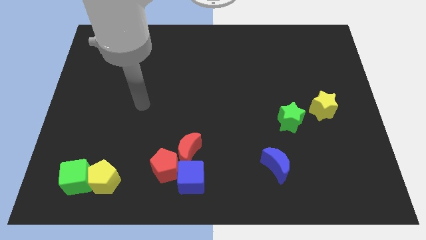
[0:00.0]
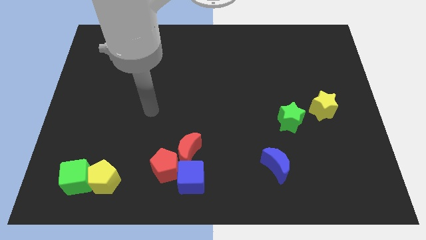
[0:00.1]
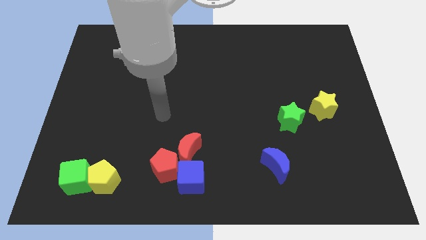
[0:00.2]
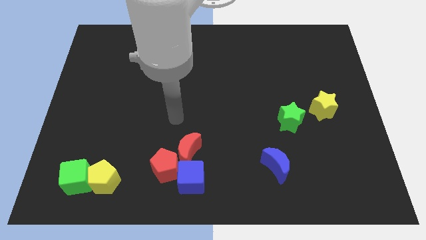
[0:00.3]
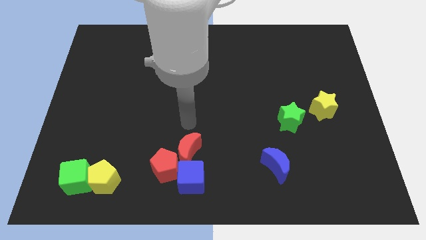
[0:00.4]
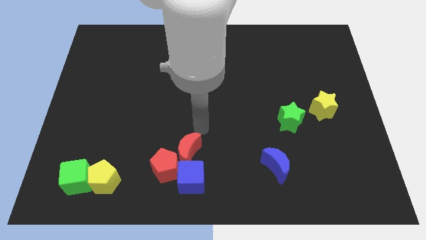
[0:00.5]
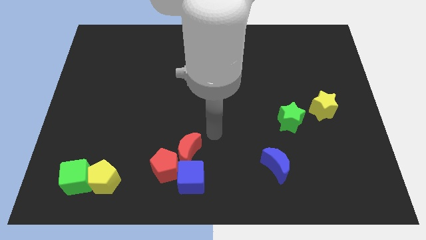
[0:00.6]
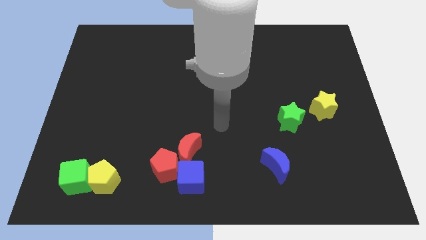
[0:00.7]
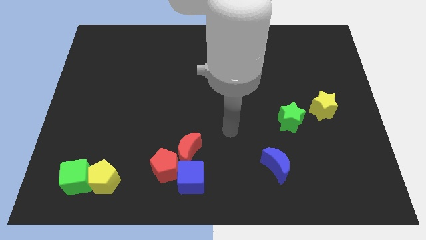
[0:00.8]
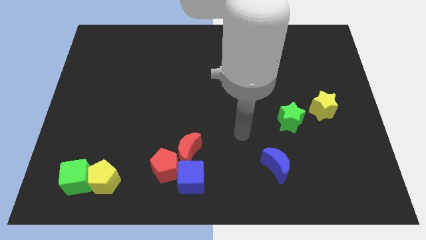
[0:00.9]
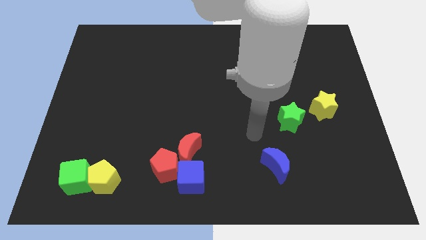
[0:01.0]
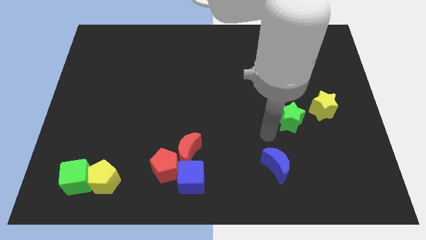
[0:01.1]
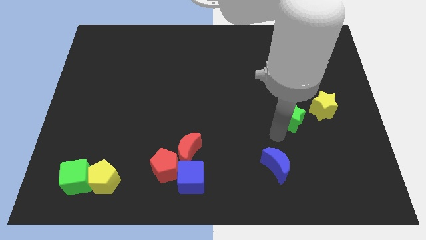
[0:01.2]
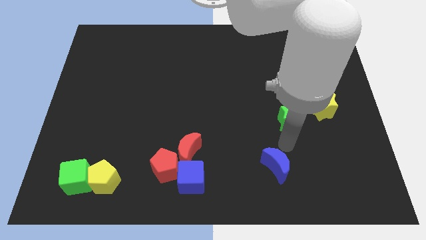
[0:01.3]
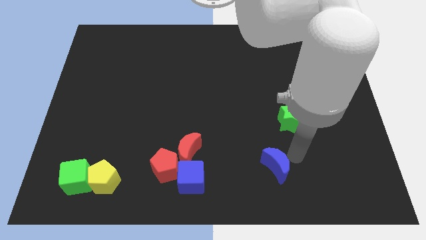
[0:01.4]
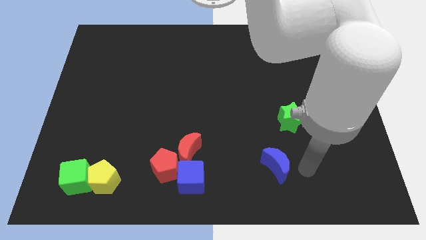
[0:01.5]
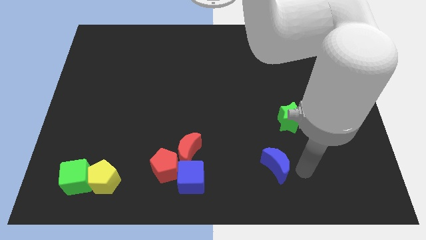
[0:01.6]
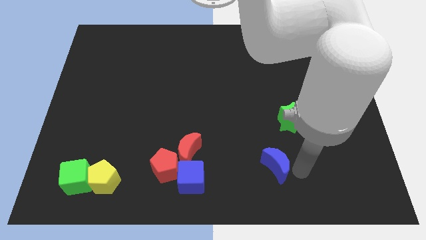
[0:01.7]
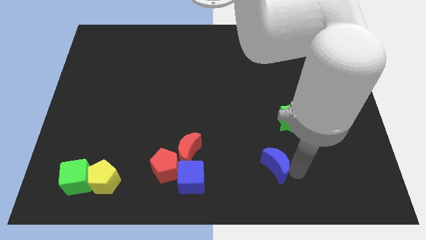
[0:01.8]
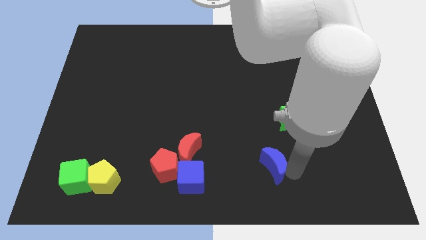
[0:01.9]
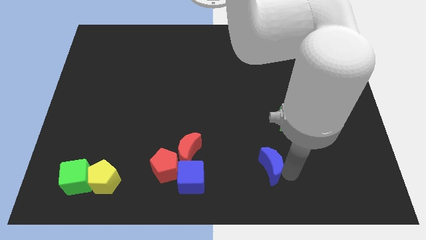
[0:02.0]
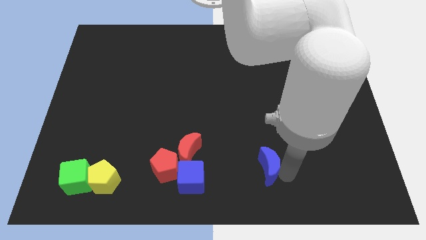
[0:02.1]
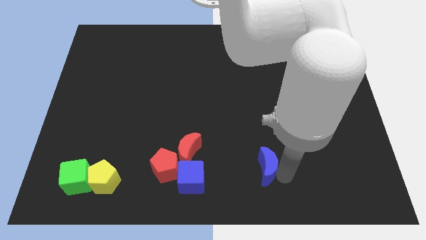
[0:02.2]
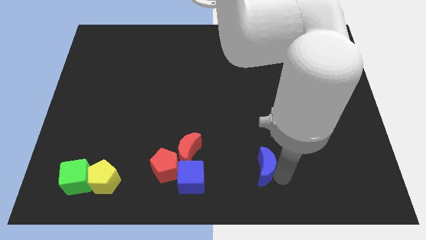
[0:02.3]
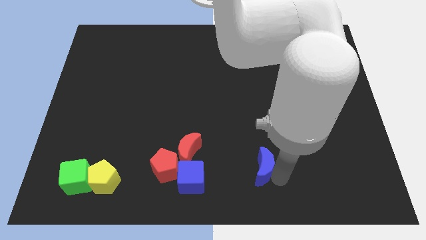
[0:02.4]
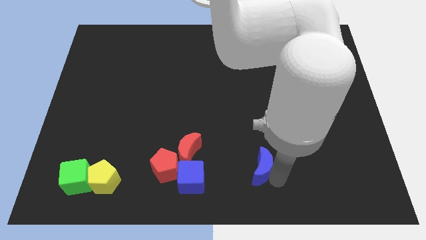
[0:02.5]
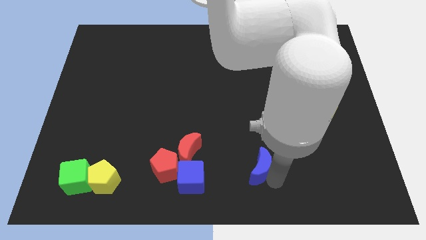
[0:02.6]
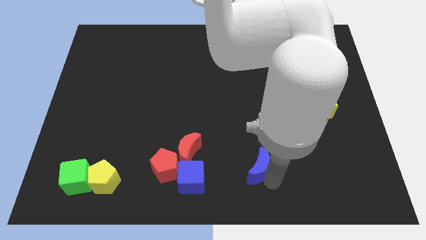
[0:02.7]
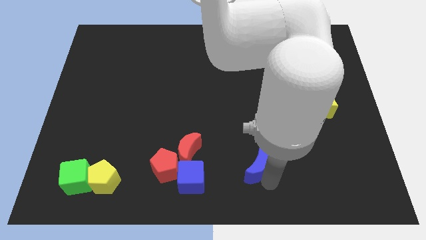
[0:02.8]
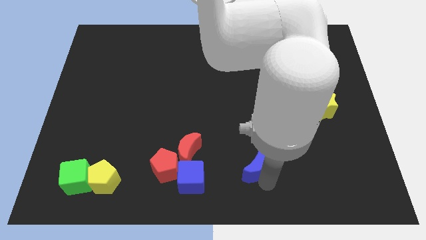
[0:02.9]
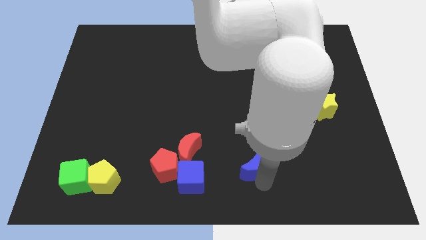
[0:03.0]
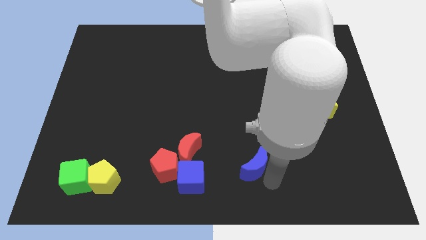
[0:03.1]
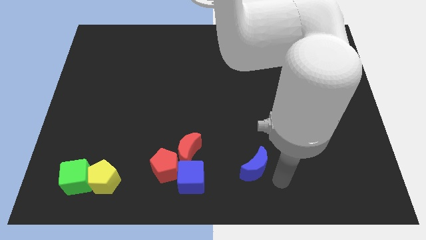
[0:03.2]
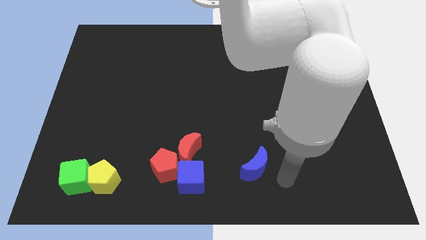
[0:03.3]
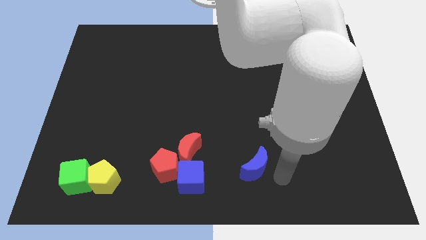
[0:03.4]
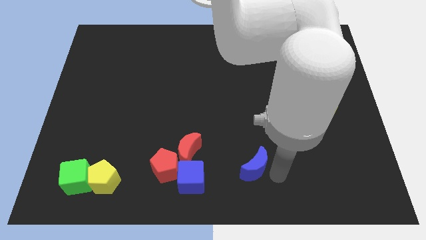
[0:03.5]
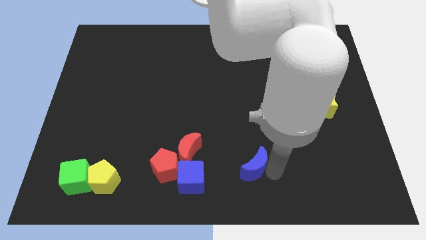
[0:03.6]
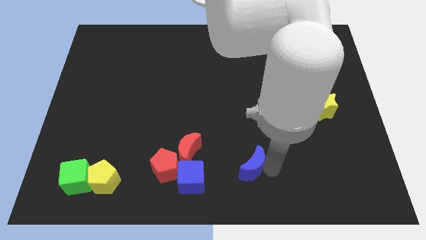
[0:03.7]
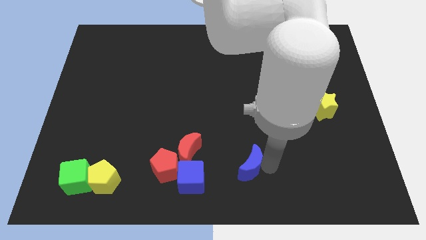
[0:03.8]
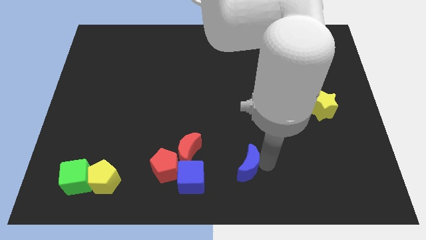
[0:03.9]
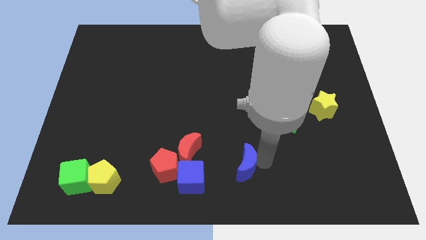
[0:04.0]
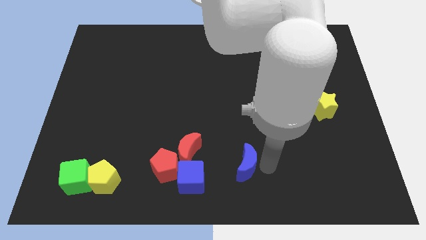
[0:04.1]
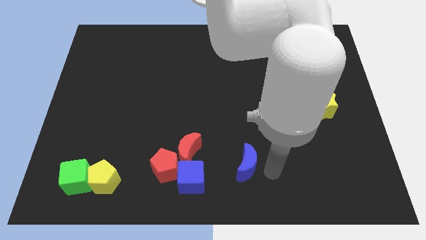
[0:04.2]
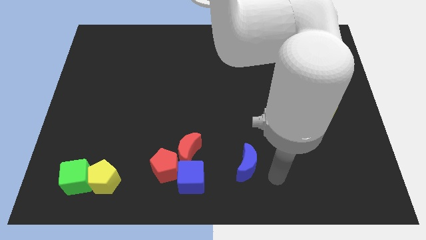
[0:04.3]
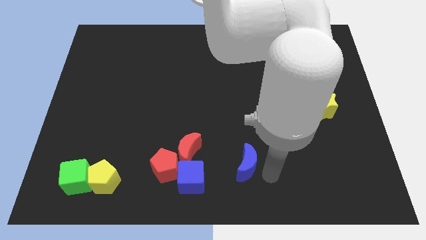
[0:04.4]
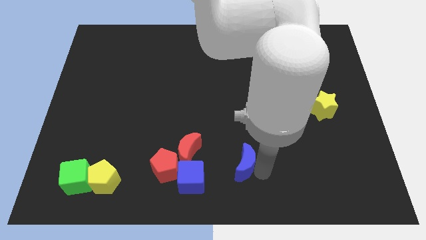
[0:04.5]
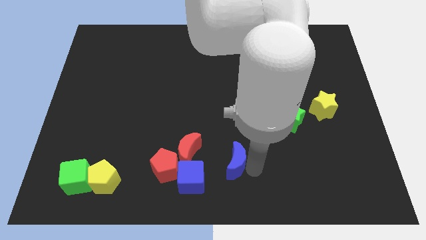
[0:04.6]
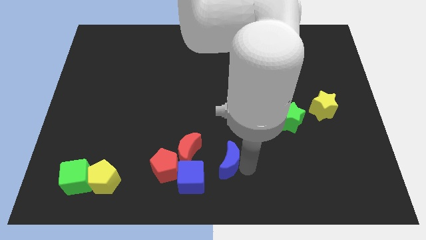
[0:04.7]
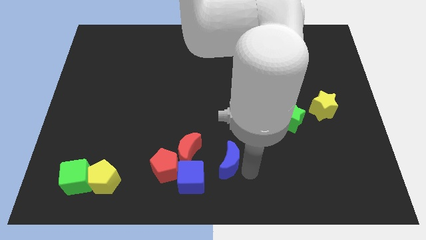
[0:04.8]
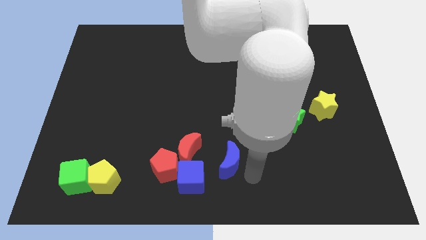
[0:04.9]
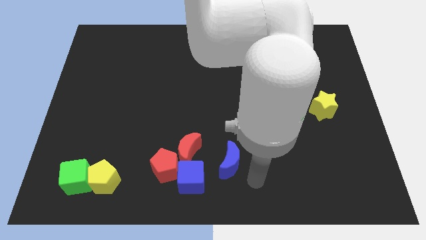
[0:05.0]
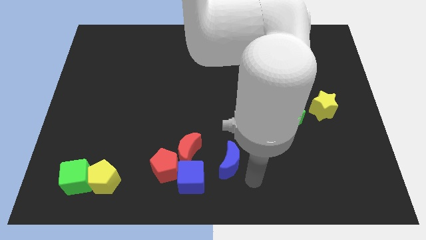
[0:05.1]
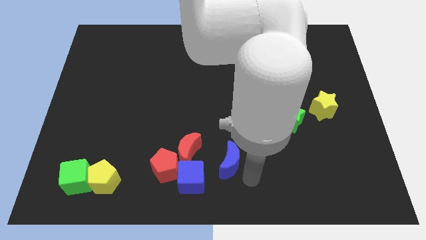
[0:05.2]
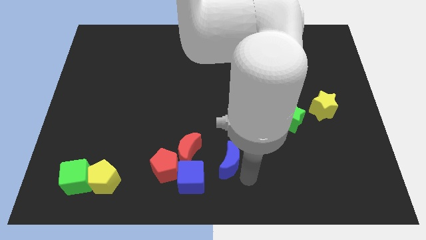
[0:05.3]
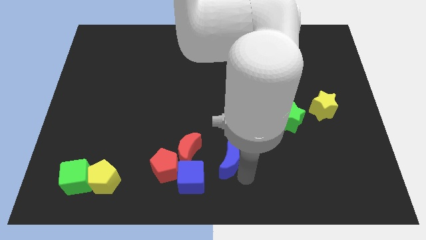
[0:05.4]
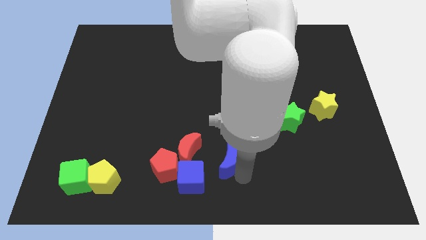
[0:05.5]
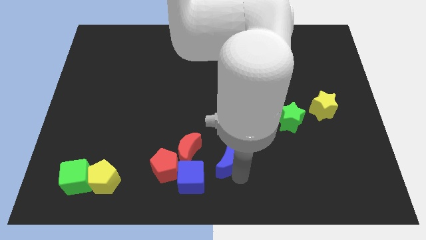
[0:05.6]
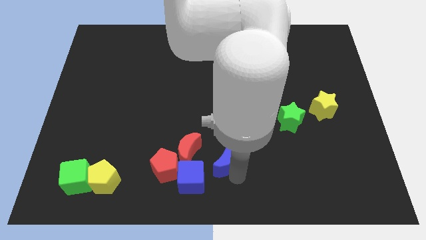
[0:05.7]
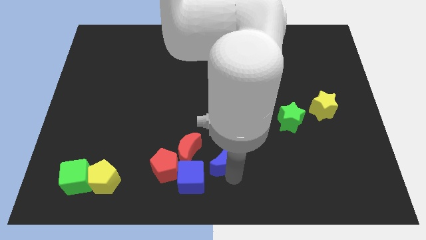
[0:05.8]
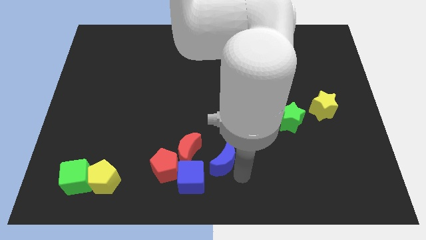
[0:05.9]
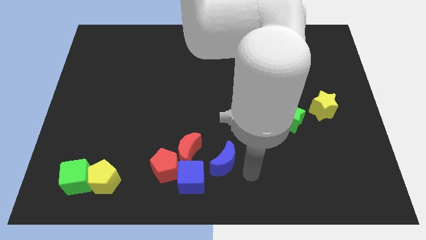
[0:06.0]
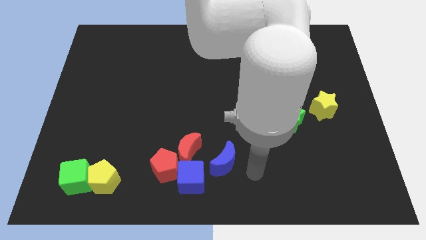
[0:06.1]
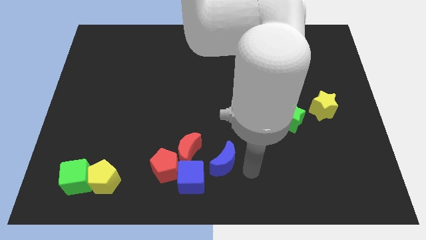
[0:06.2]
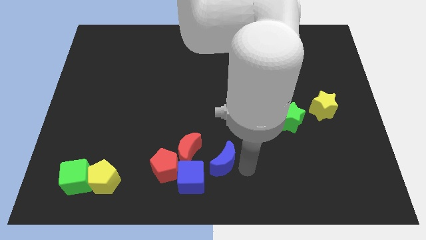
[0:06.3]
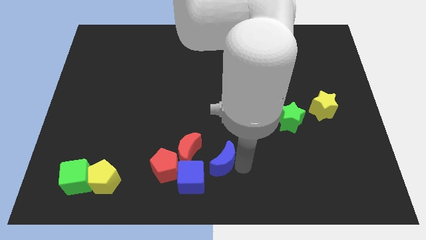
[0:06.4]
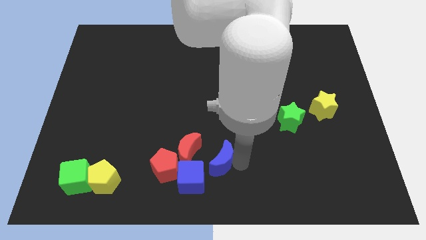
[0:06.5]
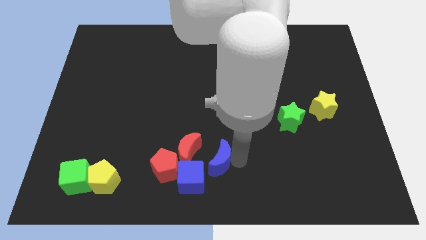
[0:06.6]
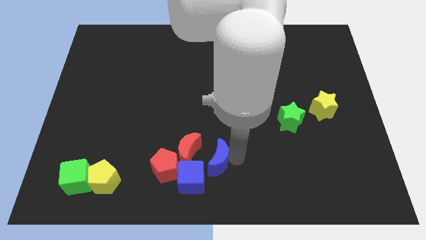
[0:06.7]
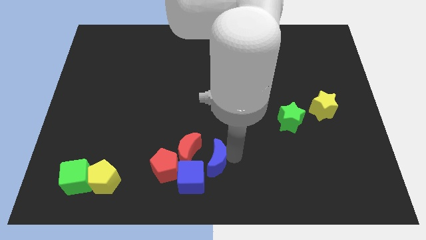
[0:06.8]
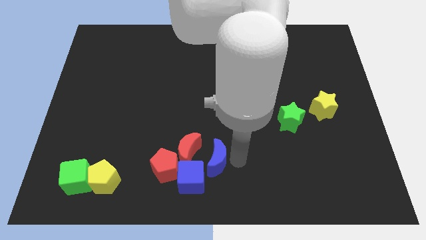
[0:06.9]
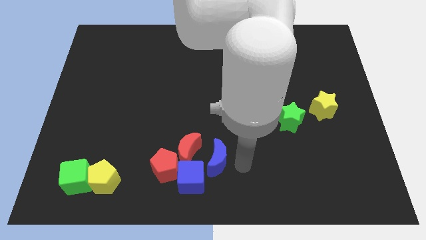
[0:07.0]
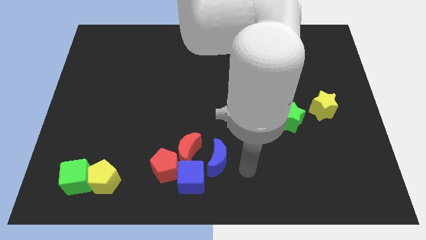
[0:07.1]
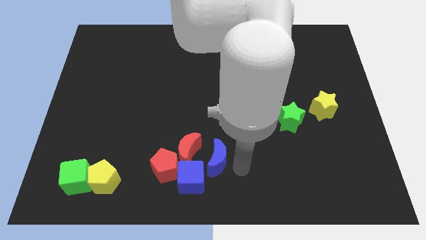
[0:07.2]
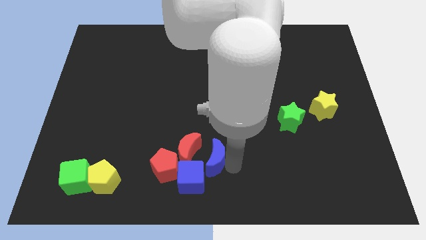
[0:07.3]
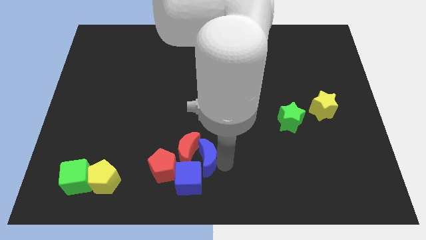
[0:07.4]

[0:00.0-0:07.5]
slide the blue moon towards the red moon
